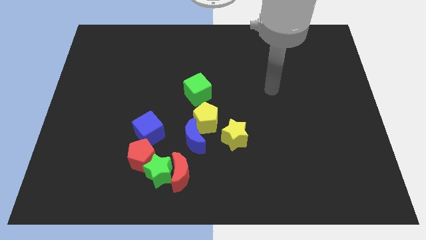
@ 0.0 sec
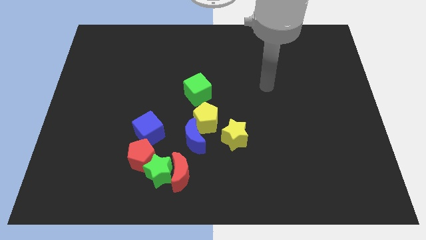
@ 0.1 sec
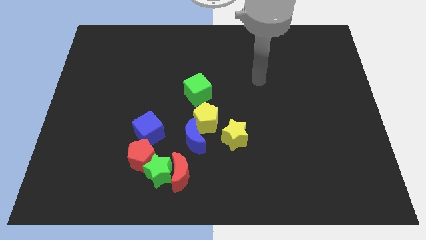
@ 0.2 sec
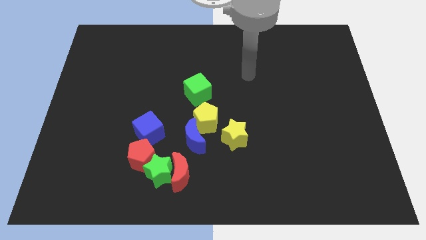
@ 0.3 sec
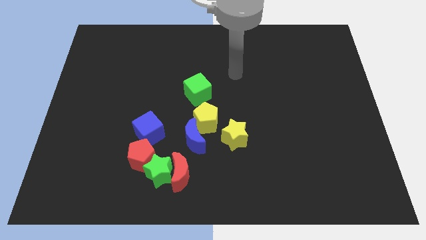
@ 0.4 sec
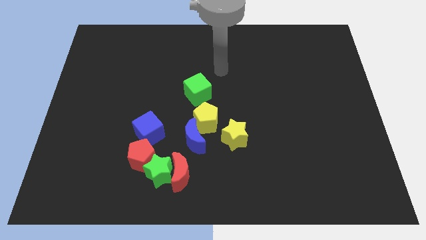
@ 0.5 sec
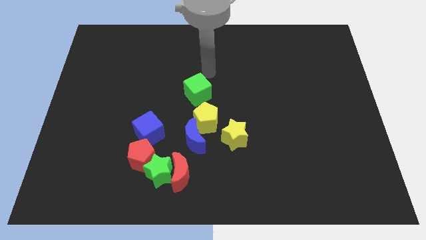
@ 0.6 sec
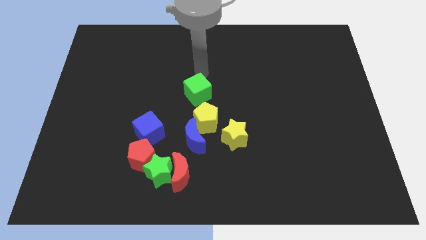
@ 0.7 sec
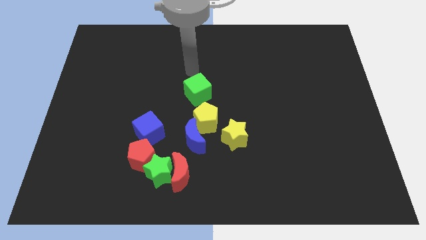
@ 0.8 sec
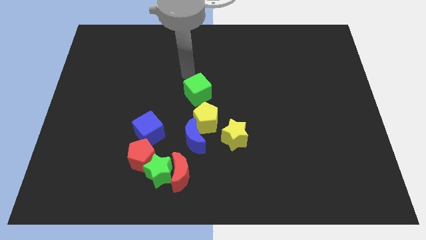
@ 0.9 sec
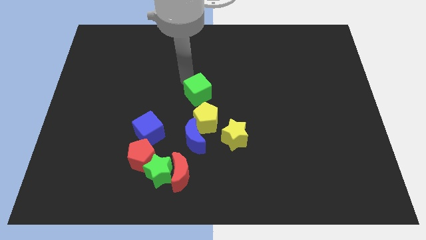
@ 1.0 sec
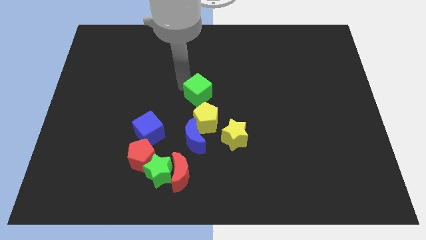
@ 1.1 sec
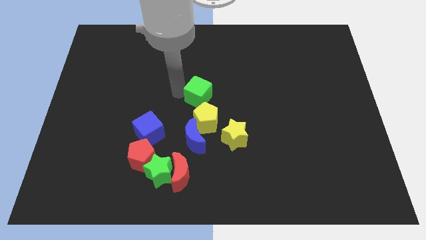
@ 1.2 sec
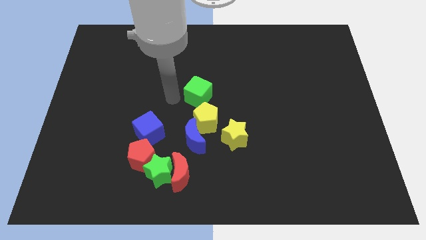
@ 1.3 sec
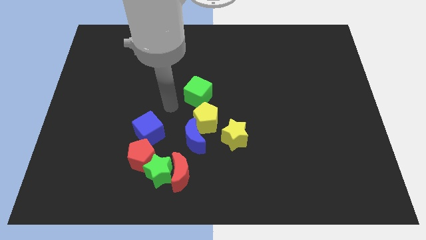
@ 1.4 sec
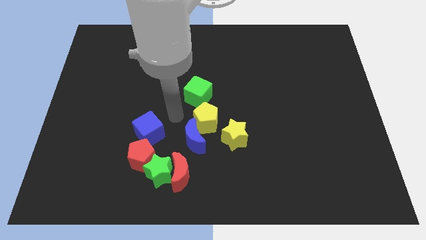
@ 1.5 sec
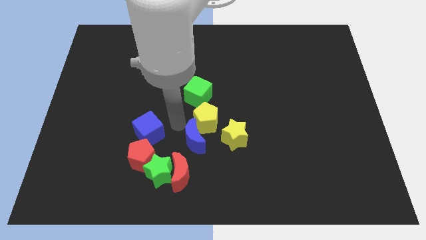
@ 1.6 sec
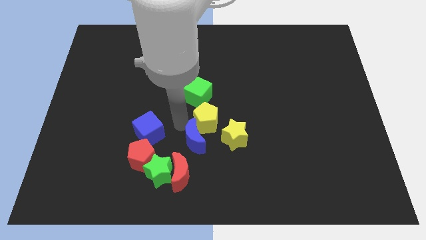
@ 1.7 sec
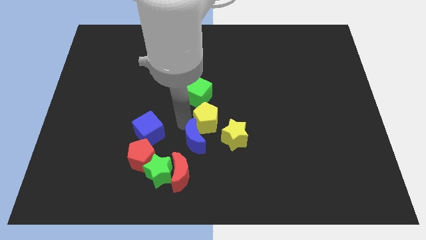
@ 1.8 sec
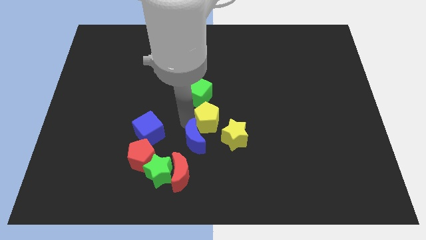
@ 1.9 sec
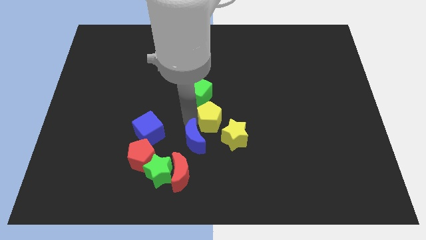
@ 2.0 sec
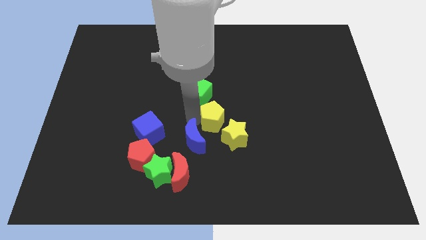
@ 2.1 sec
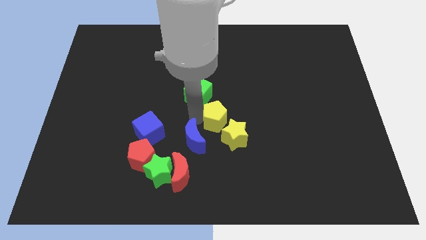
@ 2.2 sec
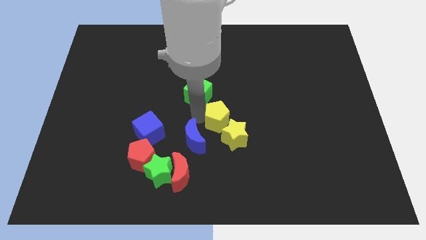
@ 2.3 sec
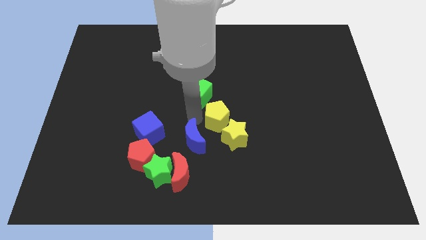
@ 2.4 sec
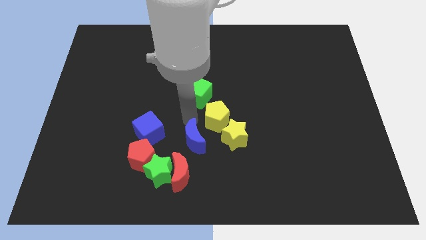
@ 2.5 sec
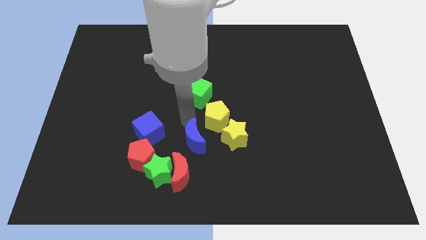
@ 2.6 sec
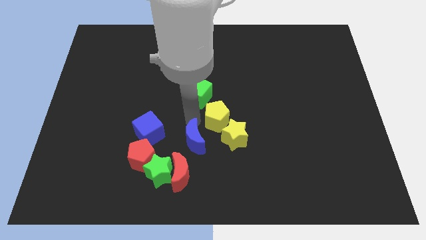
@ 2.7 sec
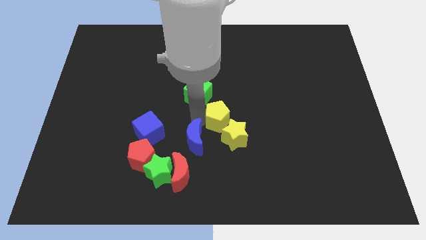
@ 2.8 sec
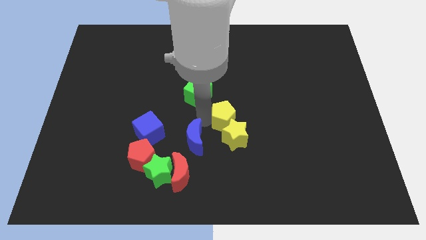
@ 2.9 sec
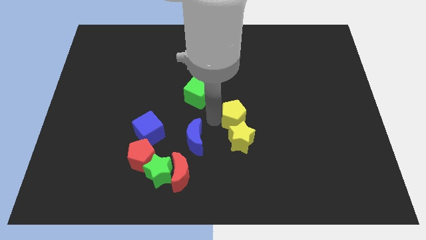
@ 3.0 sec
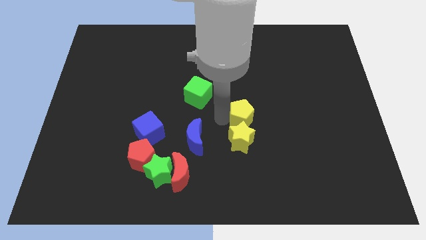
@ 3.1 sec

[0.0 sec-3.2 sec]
slightly push the yellow pentagon right

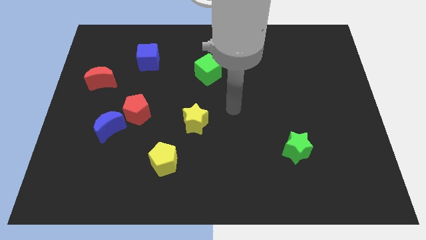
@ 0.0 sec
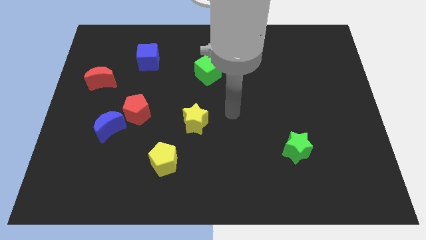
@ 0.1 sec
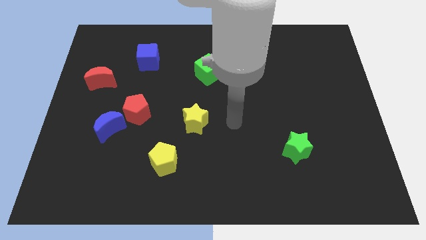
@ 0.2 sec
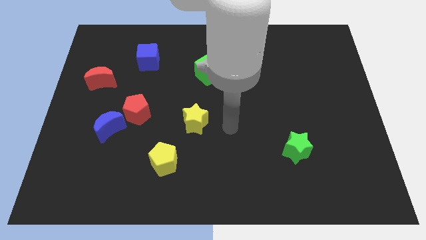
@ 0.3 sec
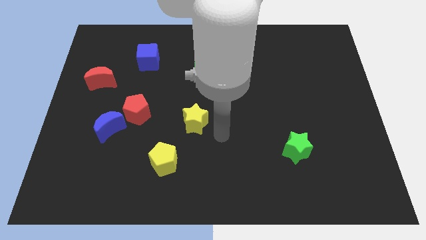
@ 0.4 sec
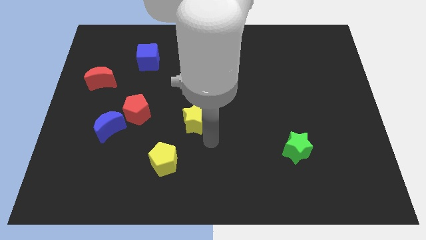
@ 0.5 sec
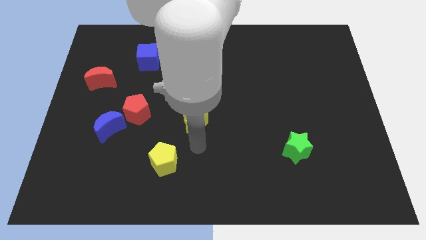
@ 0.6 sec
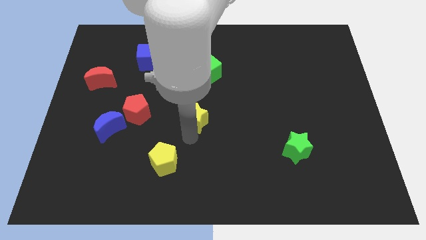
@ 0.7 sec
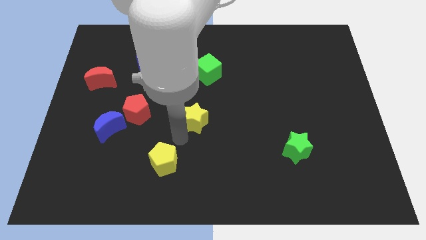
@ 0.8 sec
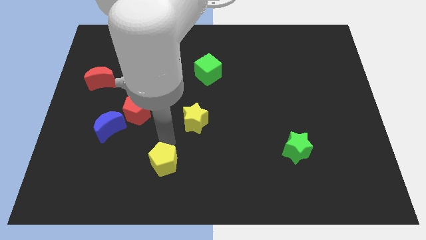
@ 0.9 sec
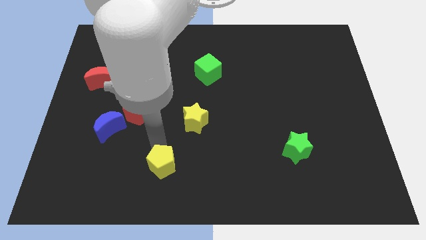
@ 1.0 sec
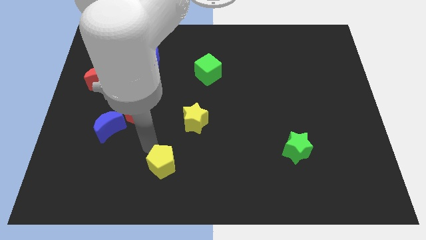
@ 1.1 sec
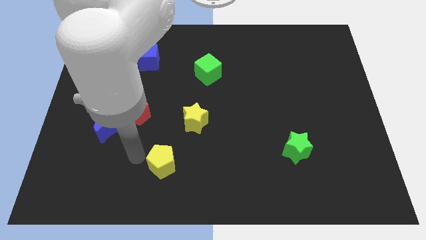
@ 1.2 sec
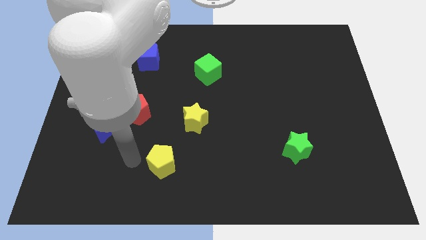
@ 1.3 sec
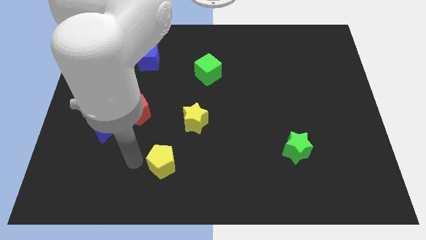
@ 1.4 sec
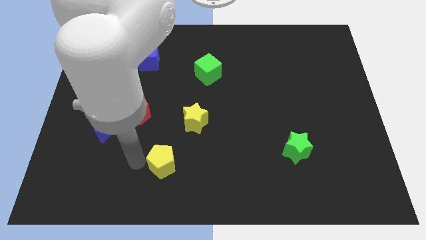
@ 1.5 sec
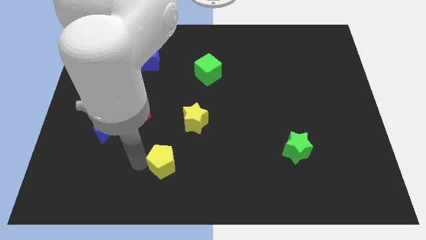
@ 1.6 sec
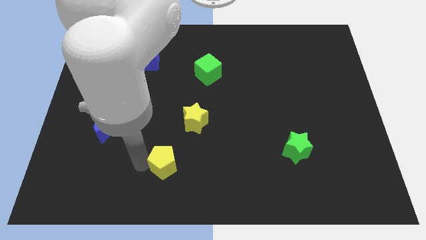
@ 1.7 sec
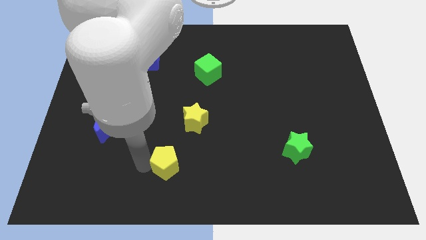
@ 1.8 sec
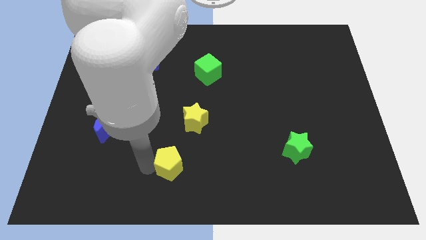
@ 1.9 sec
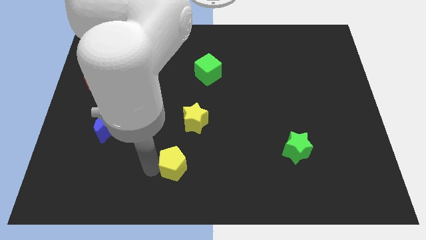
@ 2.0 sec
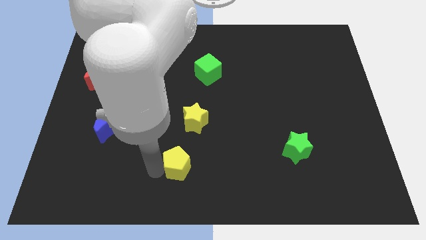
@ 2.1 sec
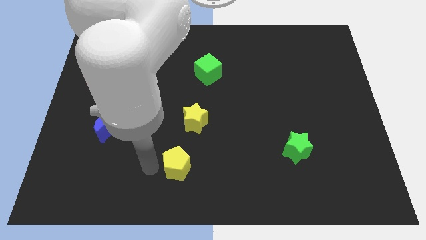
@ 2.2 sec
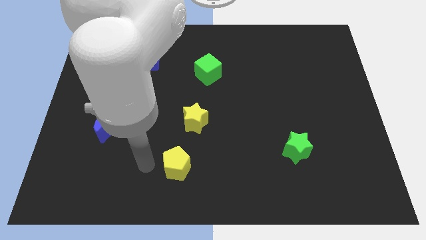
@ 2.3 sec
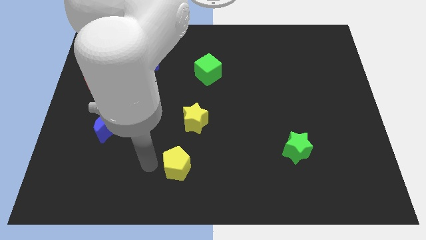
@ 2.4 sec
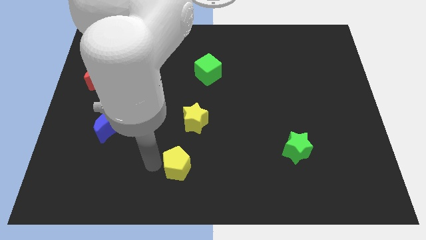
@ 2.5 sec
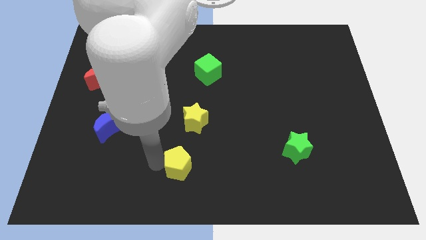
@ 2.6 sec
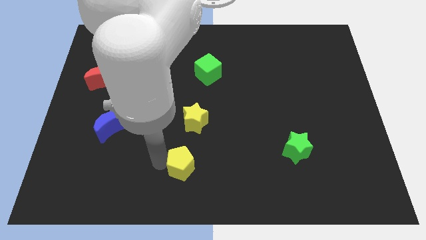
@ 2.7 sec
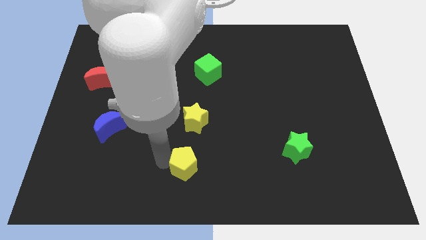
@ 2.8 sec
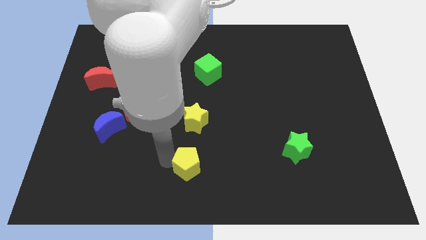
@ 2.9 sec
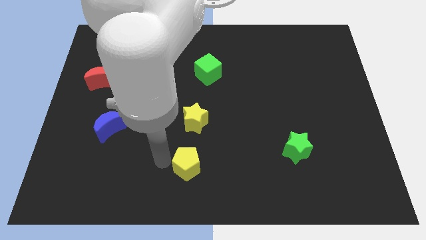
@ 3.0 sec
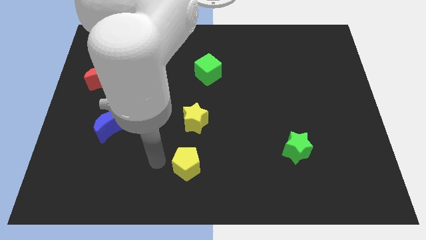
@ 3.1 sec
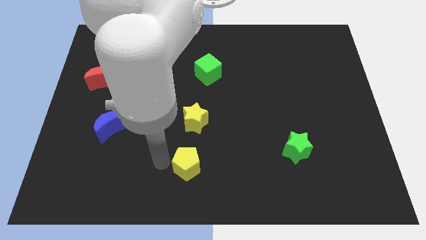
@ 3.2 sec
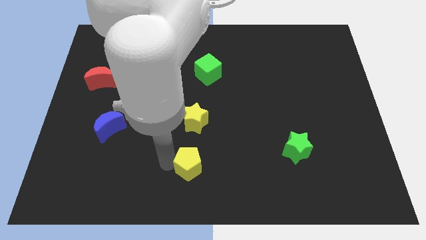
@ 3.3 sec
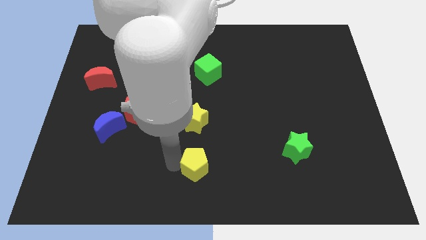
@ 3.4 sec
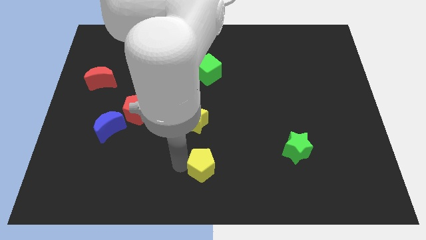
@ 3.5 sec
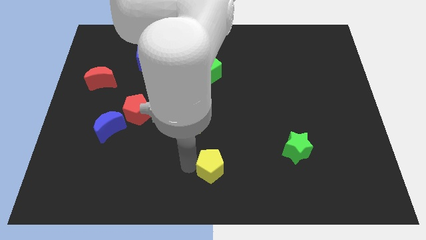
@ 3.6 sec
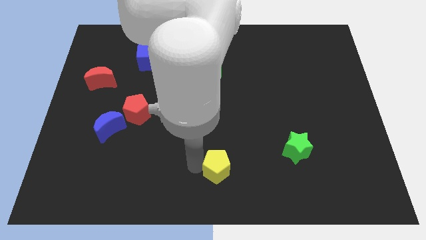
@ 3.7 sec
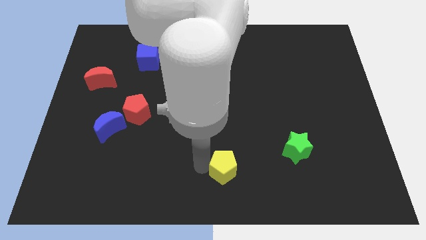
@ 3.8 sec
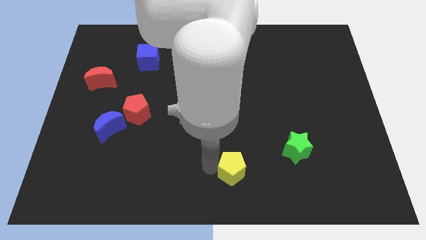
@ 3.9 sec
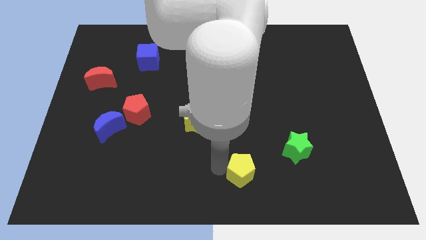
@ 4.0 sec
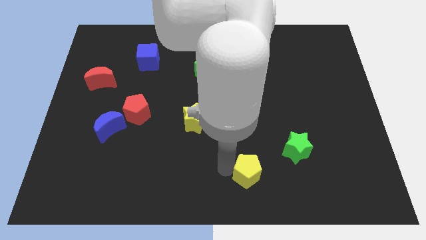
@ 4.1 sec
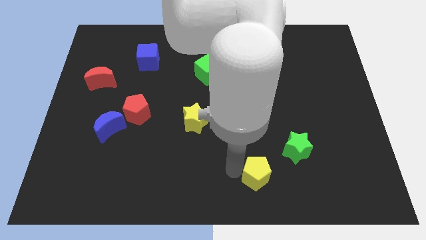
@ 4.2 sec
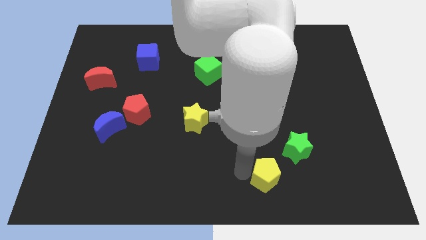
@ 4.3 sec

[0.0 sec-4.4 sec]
push the yellow pentagon right
